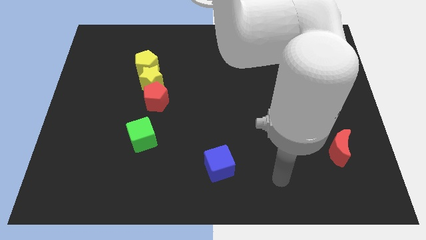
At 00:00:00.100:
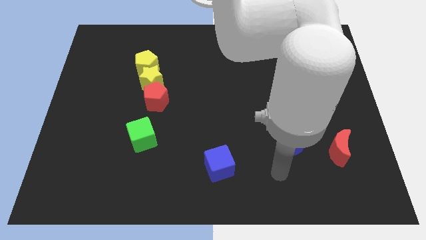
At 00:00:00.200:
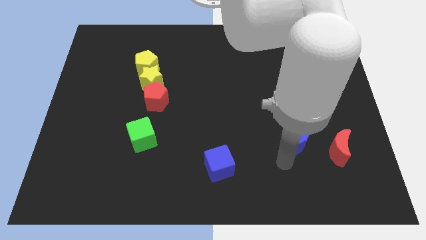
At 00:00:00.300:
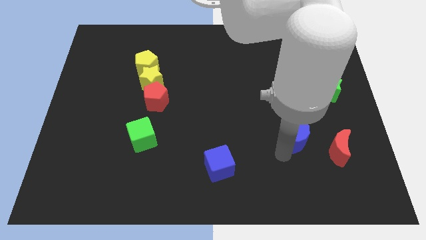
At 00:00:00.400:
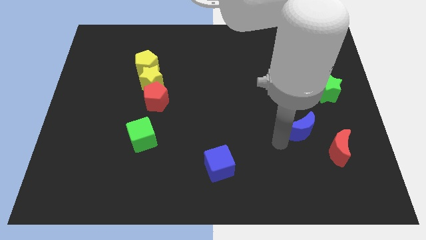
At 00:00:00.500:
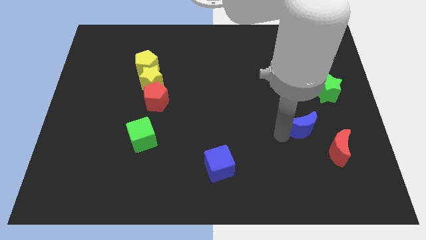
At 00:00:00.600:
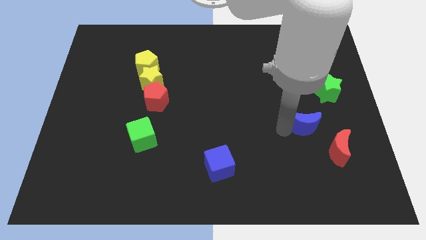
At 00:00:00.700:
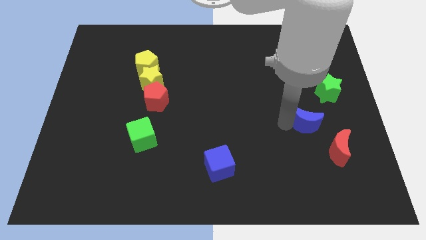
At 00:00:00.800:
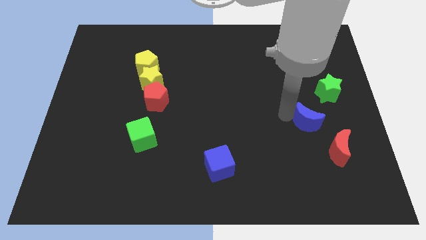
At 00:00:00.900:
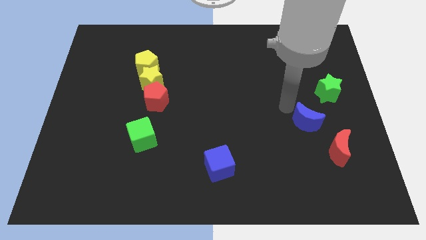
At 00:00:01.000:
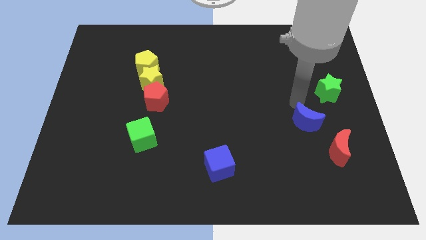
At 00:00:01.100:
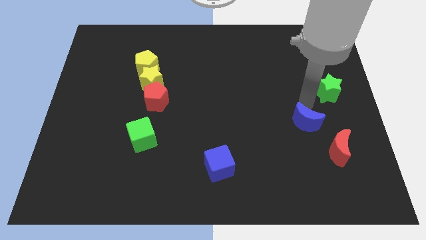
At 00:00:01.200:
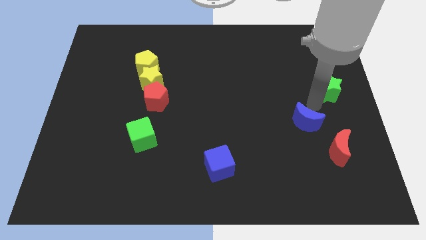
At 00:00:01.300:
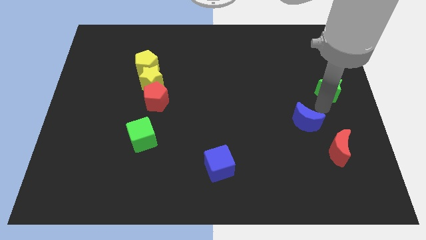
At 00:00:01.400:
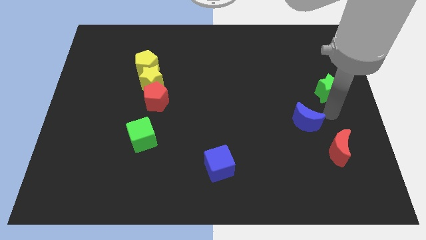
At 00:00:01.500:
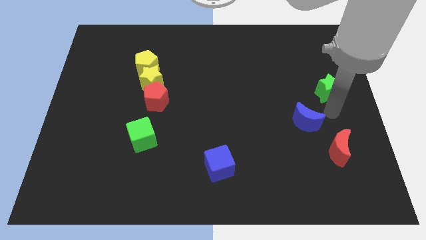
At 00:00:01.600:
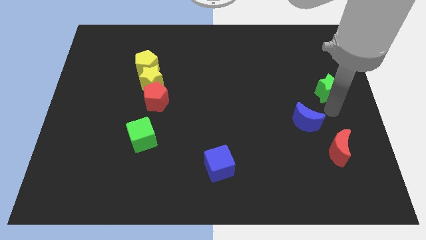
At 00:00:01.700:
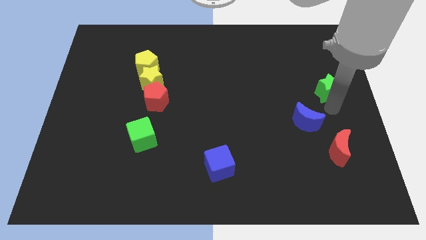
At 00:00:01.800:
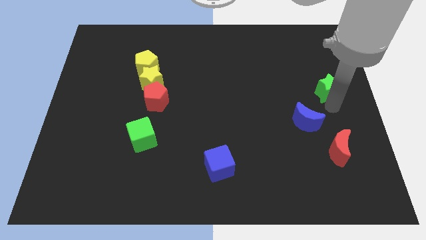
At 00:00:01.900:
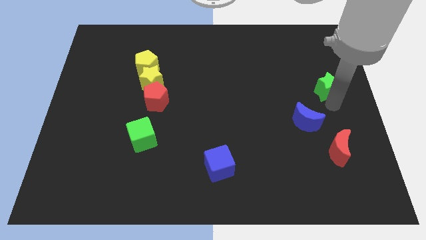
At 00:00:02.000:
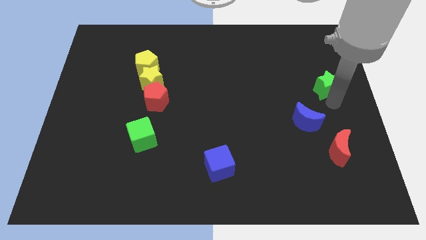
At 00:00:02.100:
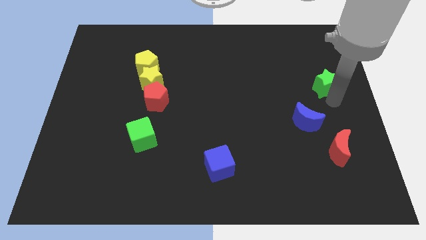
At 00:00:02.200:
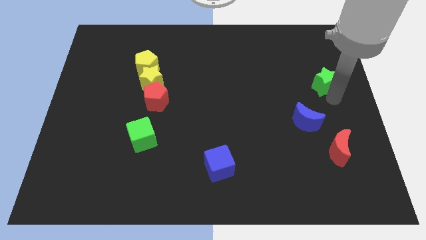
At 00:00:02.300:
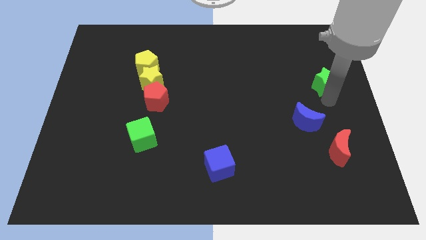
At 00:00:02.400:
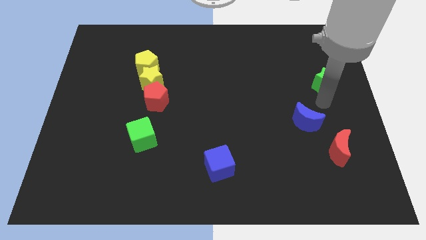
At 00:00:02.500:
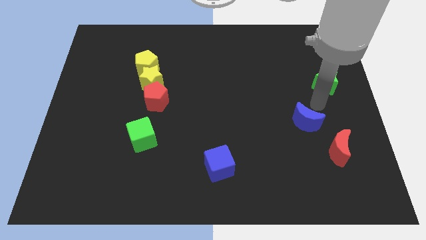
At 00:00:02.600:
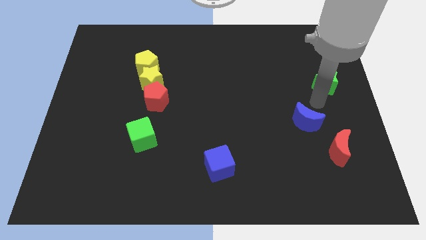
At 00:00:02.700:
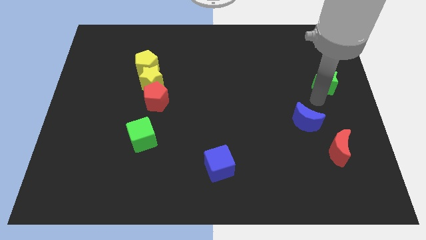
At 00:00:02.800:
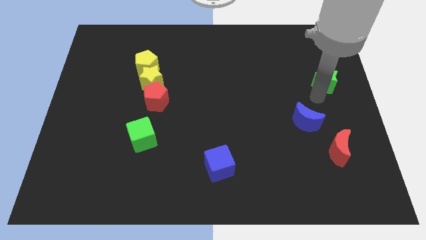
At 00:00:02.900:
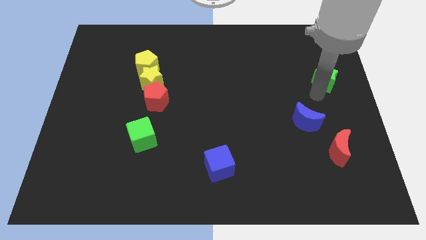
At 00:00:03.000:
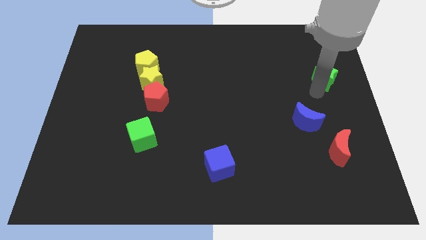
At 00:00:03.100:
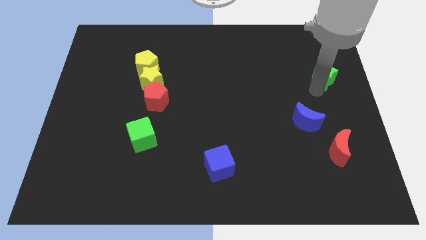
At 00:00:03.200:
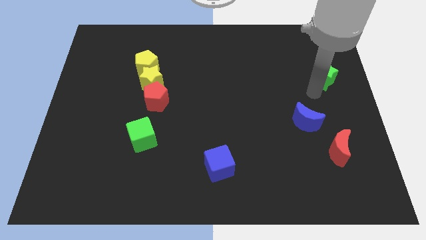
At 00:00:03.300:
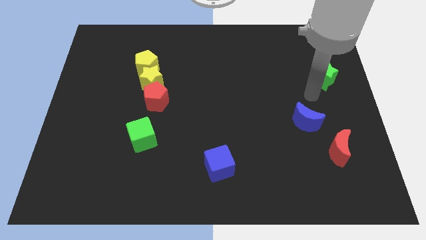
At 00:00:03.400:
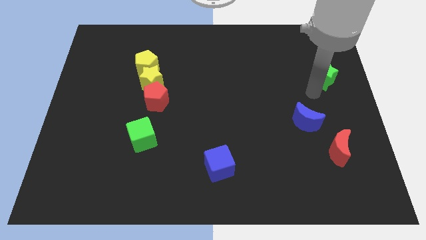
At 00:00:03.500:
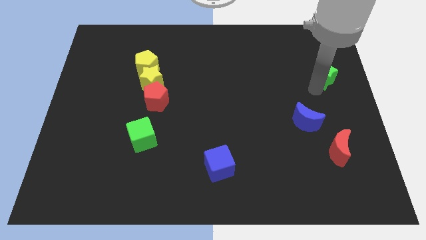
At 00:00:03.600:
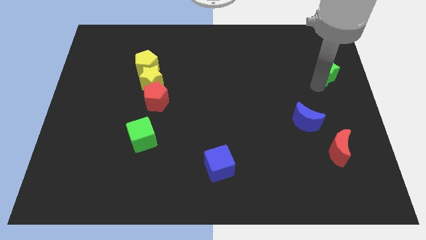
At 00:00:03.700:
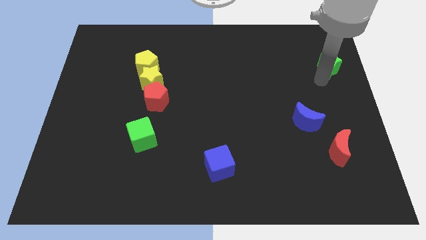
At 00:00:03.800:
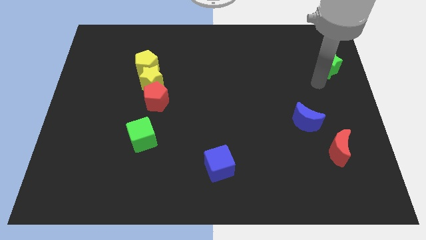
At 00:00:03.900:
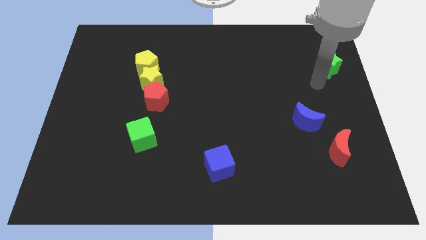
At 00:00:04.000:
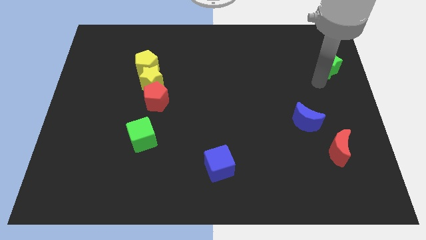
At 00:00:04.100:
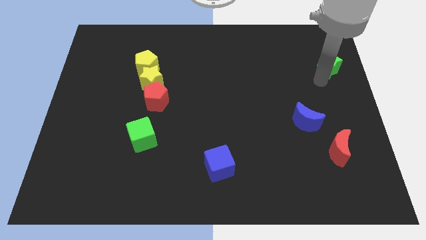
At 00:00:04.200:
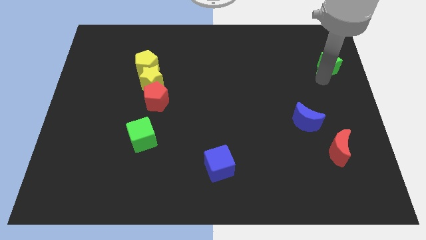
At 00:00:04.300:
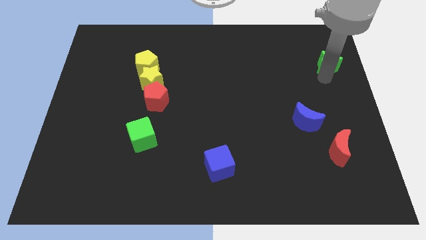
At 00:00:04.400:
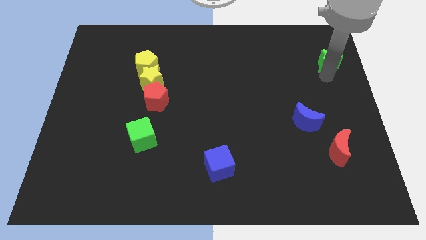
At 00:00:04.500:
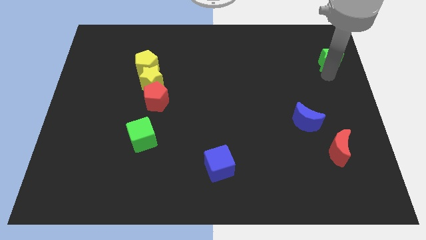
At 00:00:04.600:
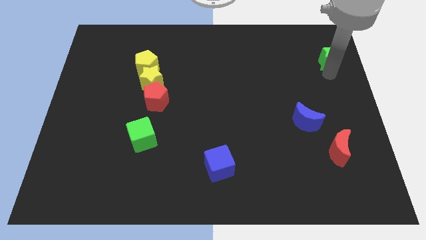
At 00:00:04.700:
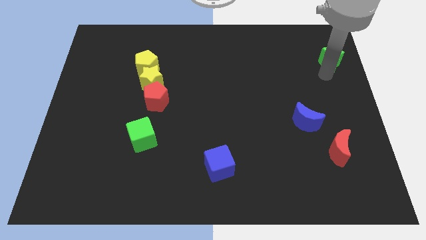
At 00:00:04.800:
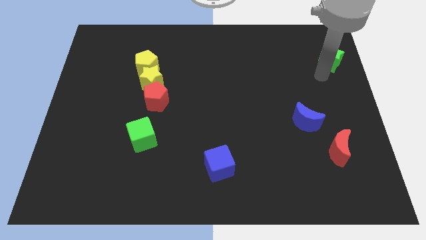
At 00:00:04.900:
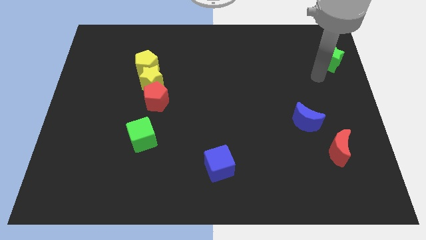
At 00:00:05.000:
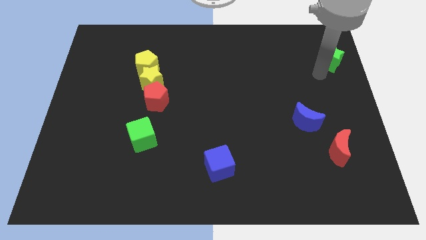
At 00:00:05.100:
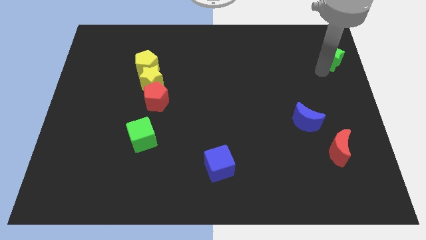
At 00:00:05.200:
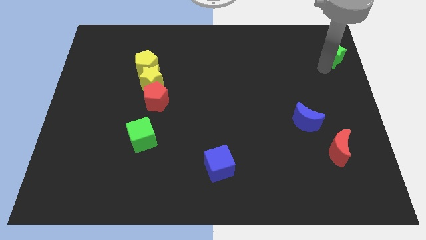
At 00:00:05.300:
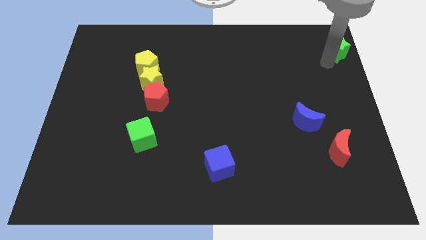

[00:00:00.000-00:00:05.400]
move the green star to the top right of the board
